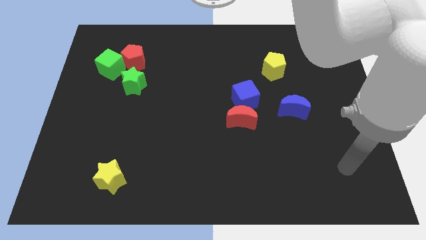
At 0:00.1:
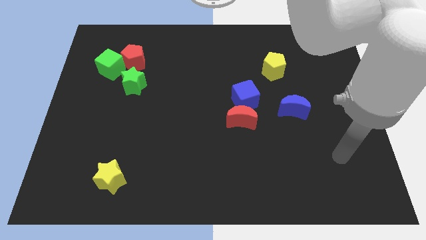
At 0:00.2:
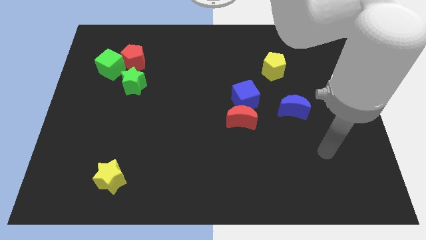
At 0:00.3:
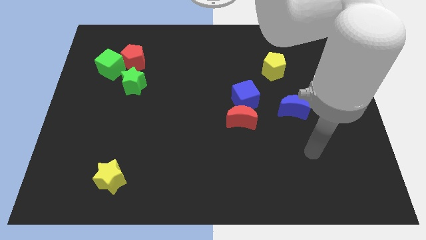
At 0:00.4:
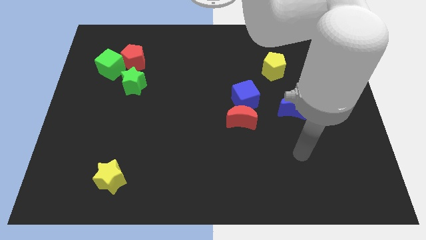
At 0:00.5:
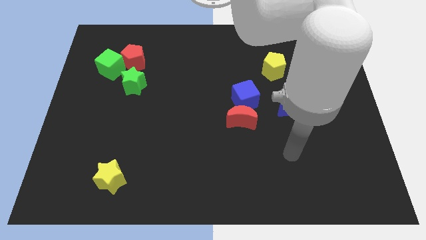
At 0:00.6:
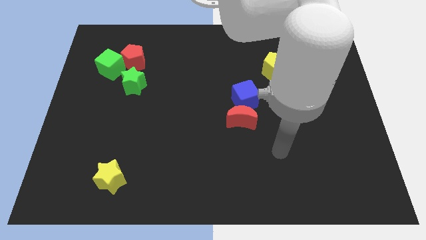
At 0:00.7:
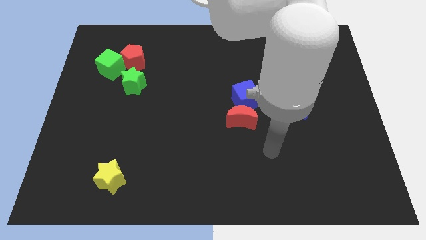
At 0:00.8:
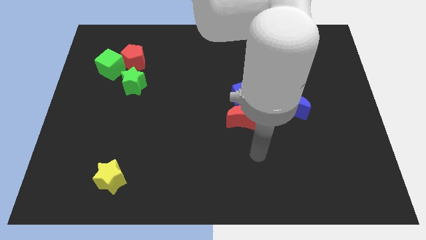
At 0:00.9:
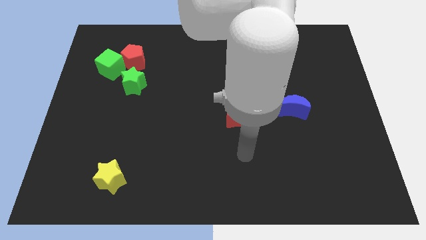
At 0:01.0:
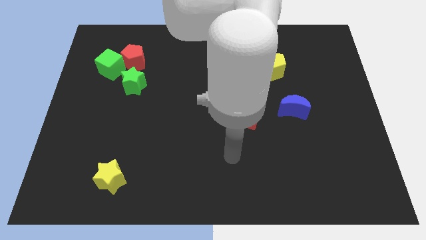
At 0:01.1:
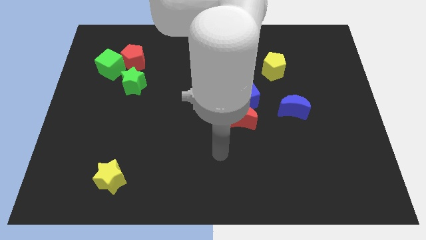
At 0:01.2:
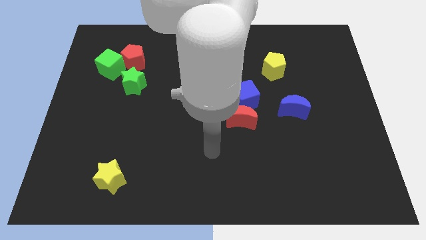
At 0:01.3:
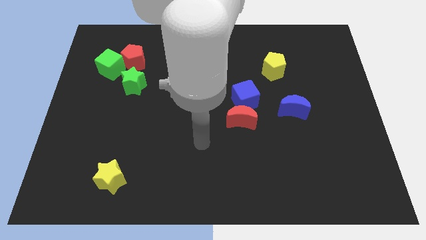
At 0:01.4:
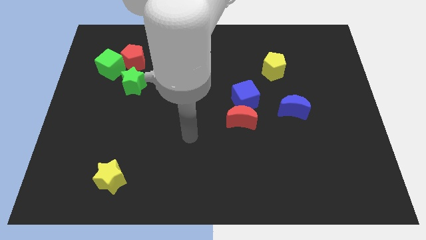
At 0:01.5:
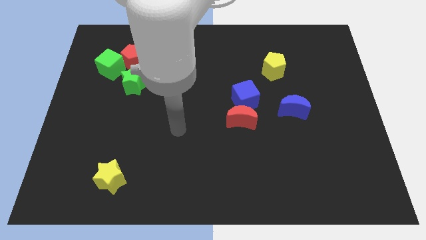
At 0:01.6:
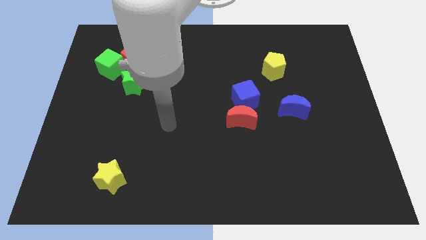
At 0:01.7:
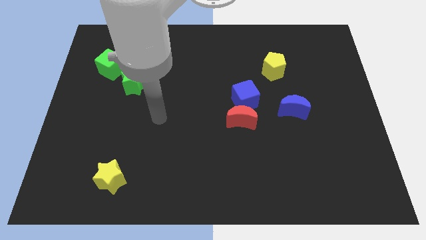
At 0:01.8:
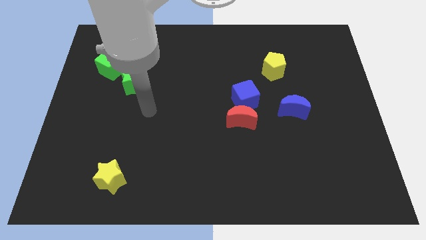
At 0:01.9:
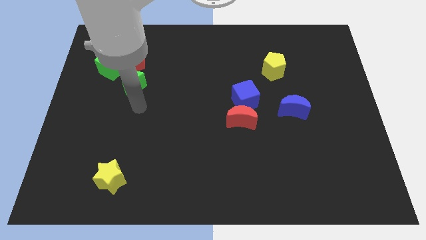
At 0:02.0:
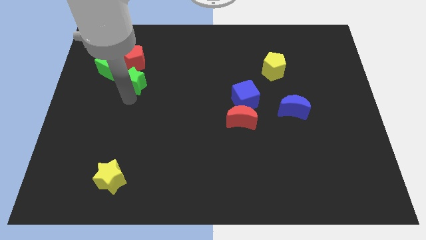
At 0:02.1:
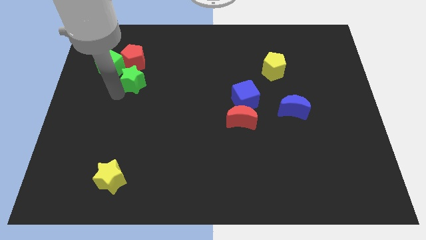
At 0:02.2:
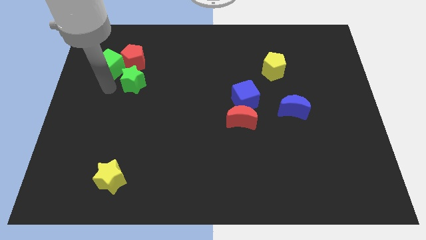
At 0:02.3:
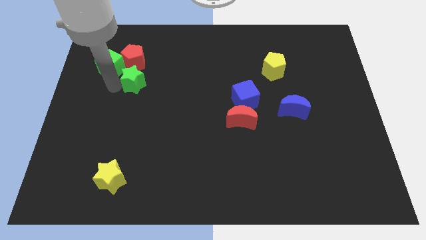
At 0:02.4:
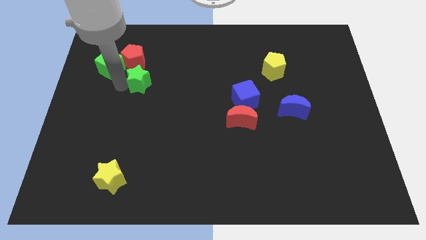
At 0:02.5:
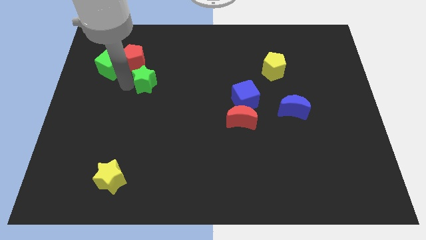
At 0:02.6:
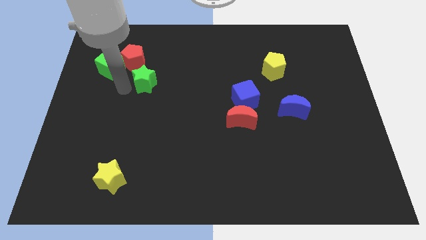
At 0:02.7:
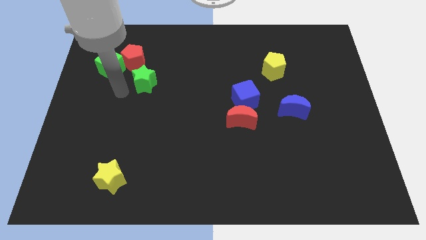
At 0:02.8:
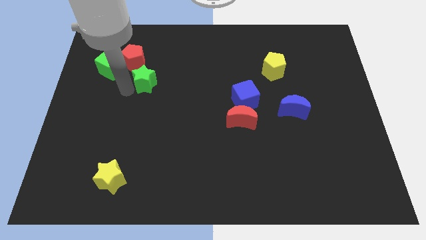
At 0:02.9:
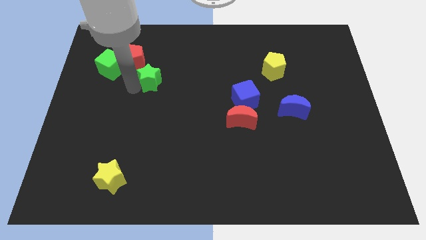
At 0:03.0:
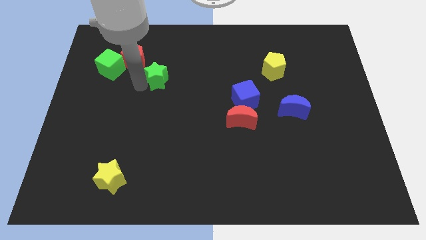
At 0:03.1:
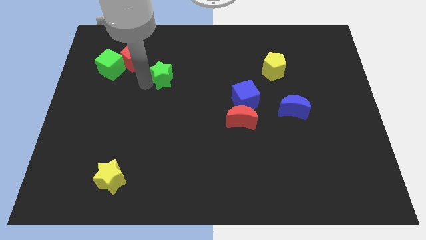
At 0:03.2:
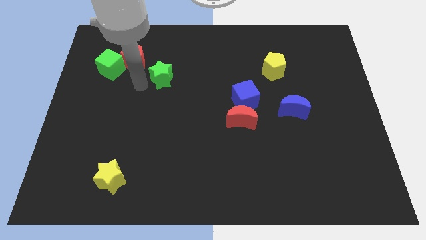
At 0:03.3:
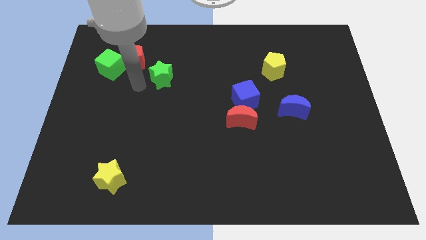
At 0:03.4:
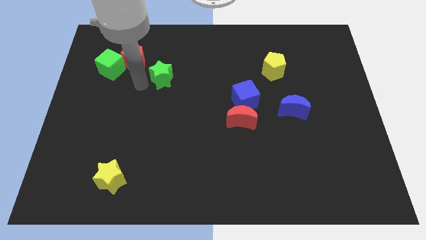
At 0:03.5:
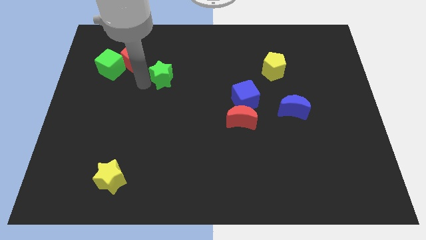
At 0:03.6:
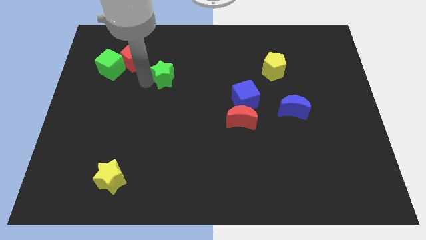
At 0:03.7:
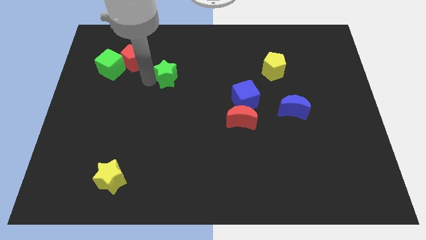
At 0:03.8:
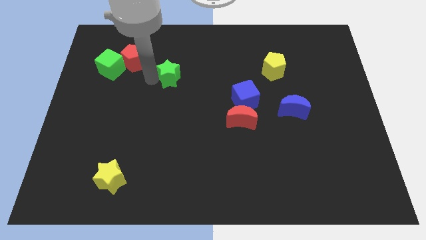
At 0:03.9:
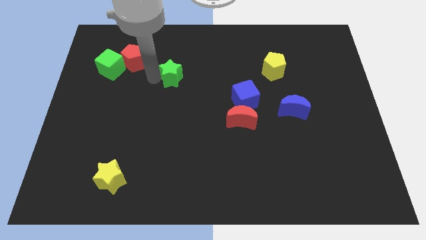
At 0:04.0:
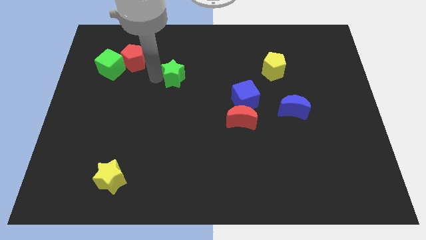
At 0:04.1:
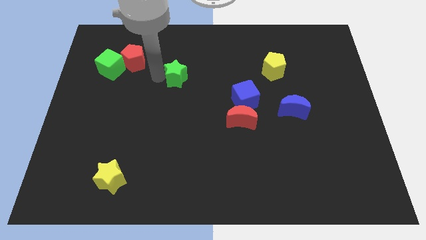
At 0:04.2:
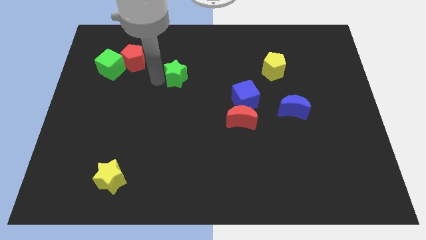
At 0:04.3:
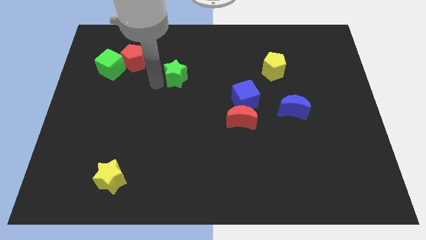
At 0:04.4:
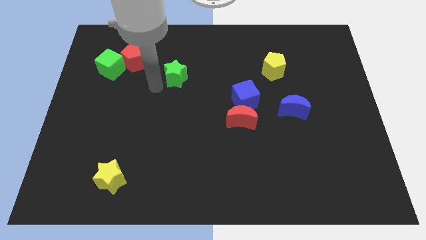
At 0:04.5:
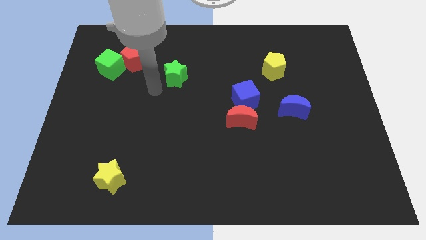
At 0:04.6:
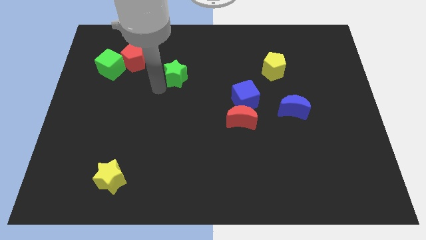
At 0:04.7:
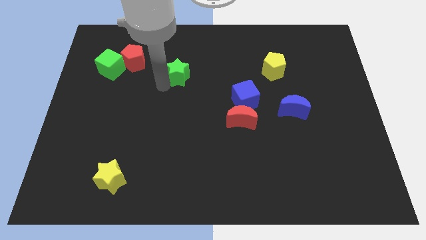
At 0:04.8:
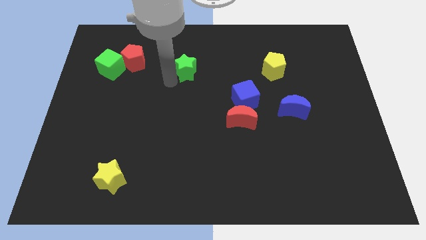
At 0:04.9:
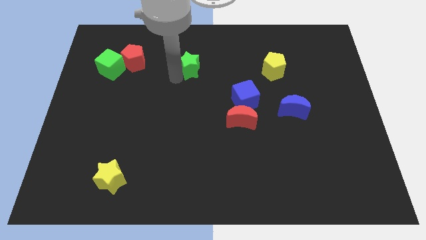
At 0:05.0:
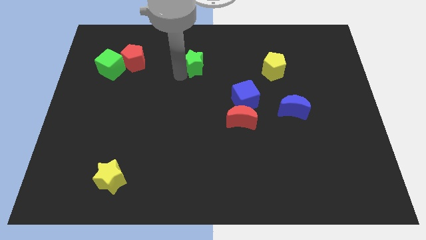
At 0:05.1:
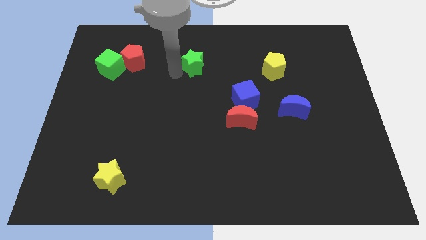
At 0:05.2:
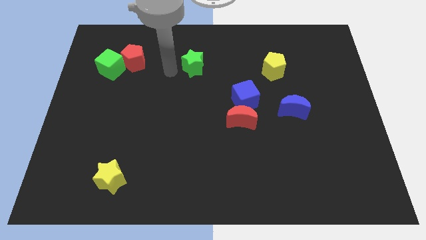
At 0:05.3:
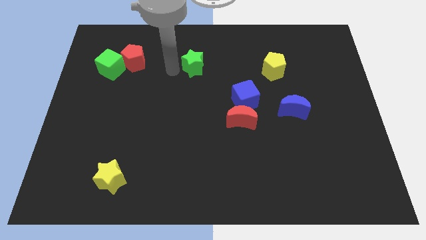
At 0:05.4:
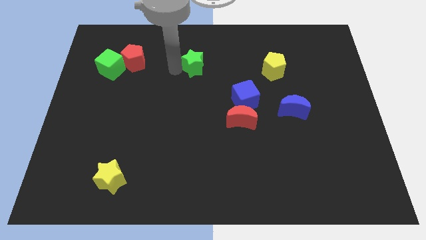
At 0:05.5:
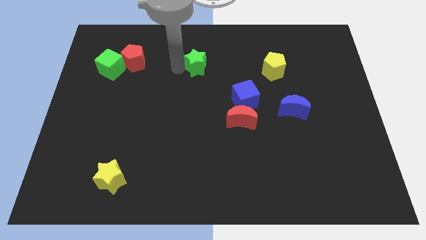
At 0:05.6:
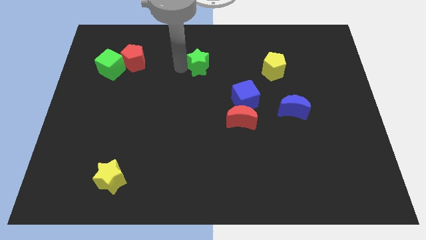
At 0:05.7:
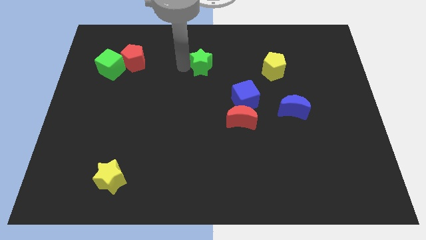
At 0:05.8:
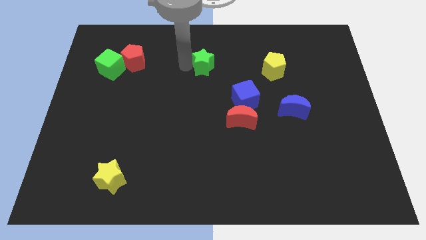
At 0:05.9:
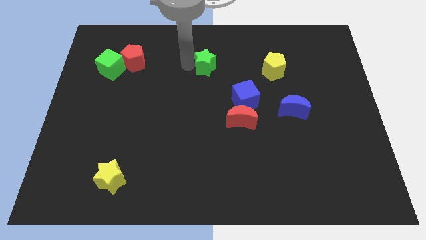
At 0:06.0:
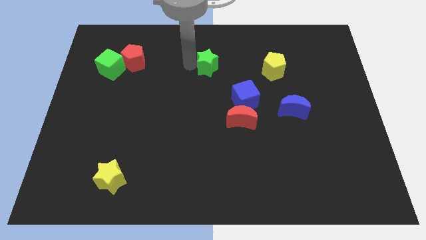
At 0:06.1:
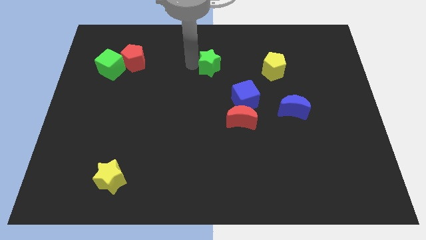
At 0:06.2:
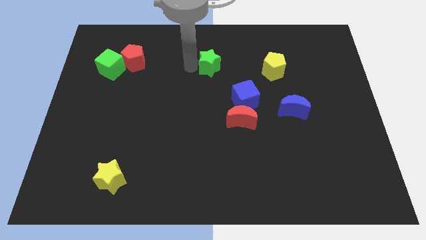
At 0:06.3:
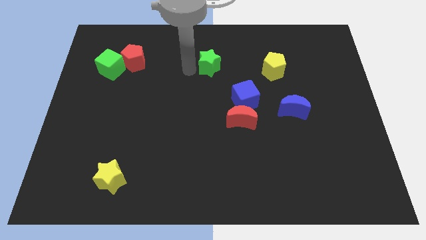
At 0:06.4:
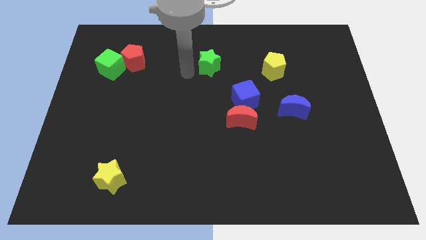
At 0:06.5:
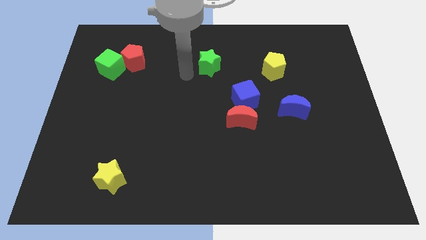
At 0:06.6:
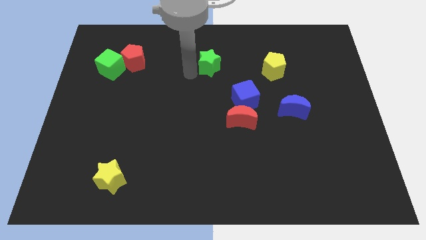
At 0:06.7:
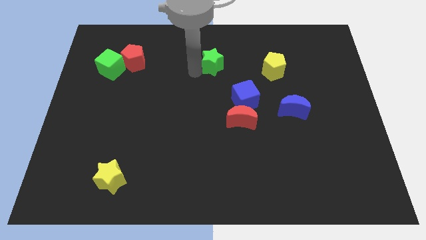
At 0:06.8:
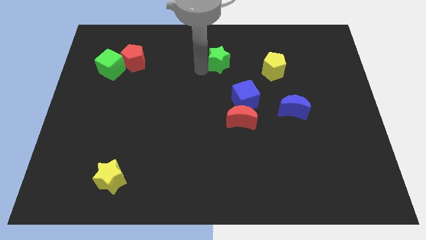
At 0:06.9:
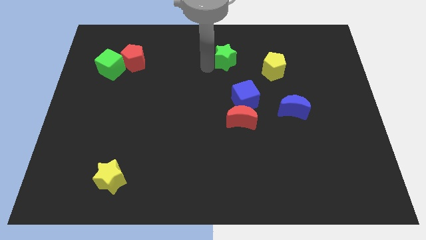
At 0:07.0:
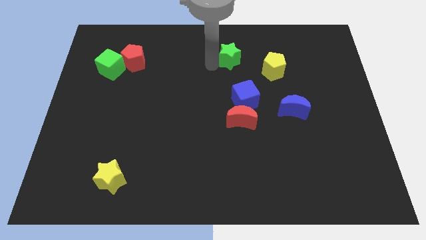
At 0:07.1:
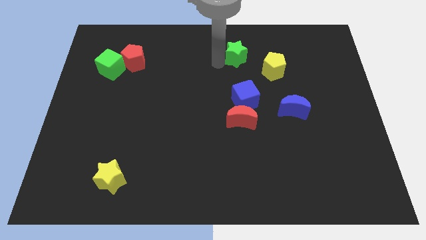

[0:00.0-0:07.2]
push the green star to the top left of the yellow pentagon

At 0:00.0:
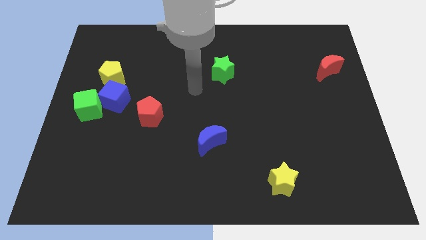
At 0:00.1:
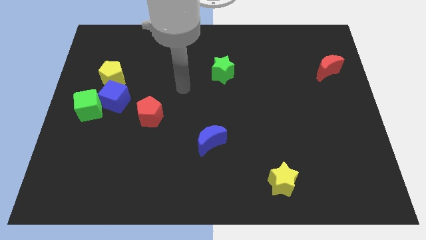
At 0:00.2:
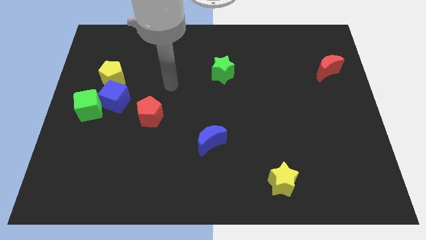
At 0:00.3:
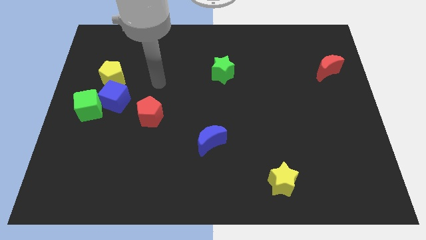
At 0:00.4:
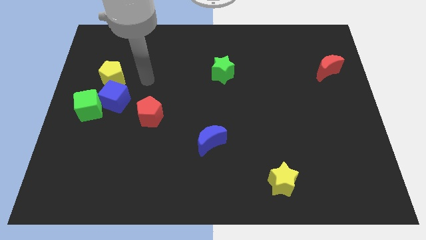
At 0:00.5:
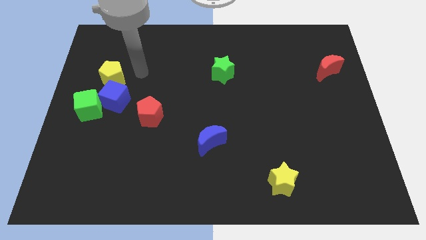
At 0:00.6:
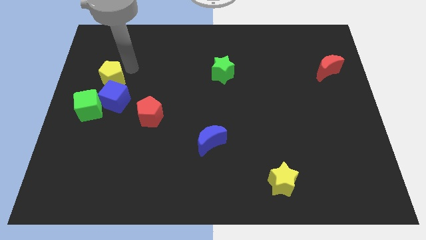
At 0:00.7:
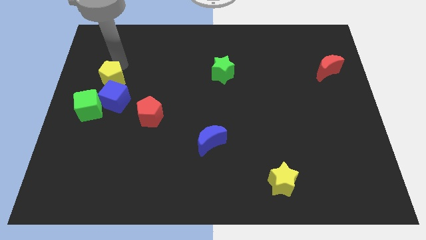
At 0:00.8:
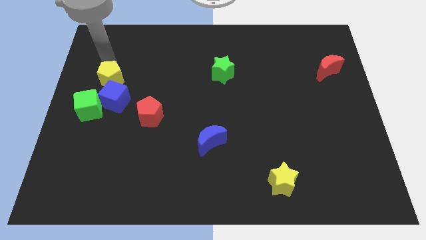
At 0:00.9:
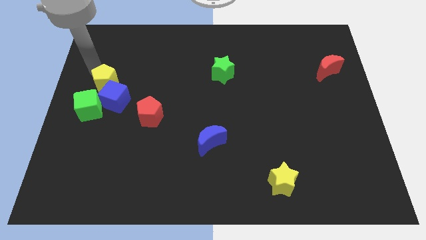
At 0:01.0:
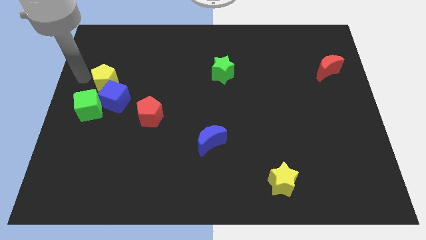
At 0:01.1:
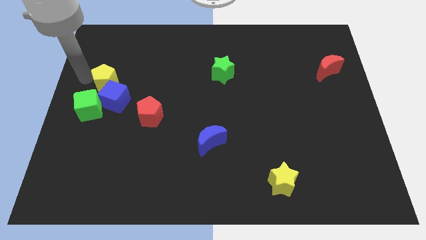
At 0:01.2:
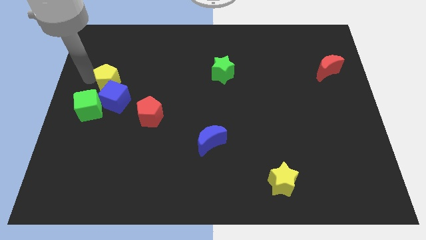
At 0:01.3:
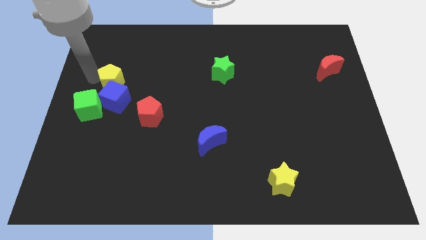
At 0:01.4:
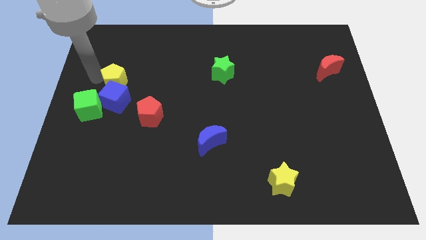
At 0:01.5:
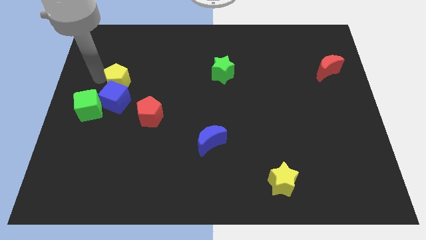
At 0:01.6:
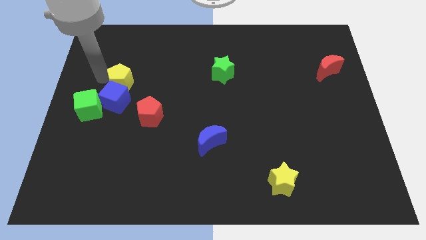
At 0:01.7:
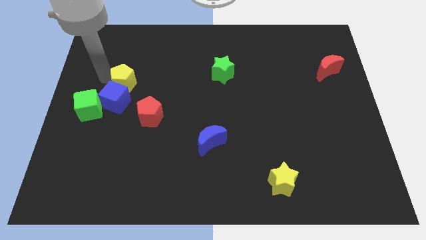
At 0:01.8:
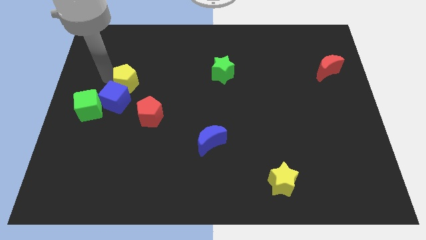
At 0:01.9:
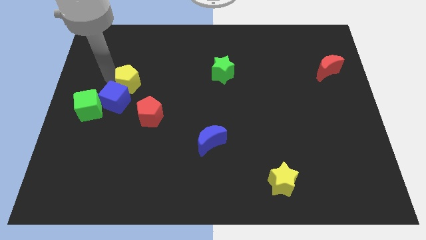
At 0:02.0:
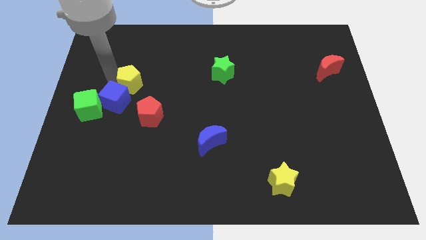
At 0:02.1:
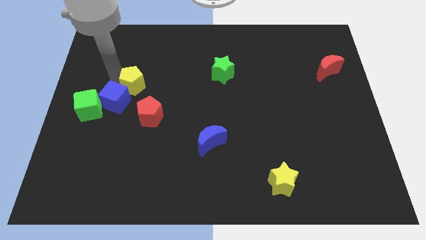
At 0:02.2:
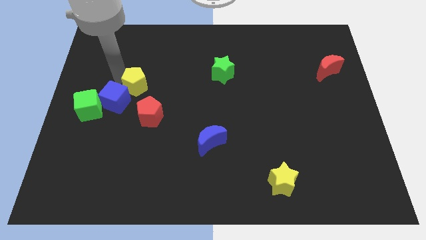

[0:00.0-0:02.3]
slide the yellow pentagon right of the blue cube
